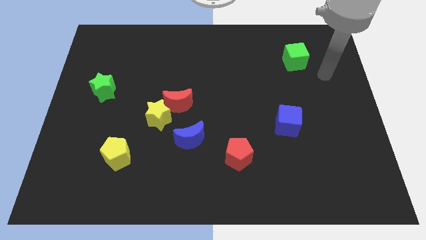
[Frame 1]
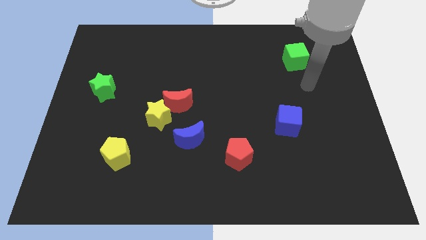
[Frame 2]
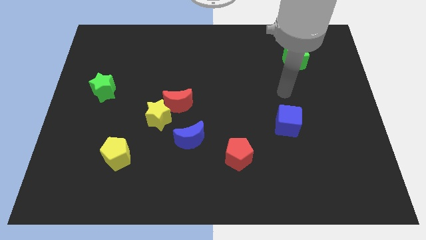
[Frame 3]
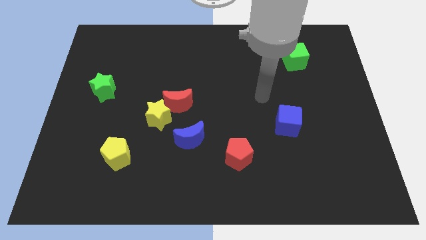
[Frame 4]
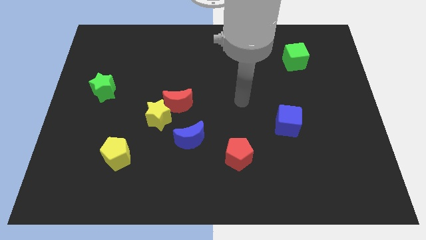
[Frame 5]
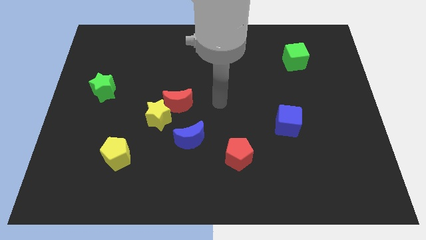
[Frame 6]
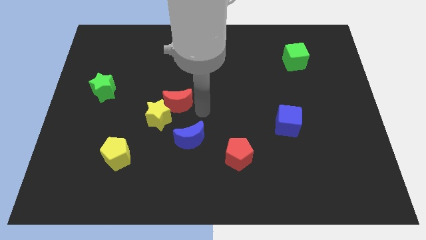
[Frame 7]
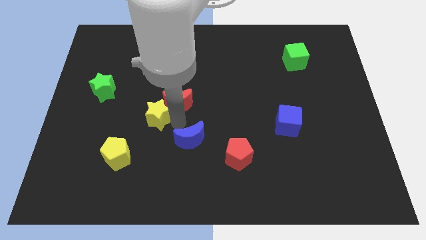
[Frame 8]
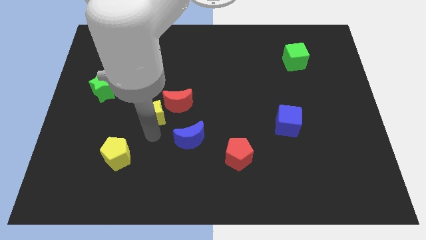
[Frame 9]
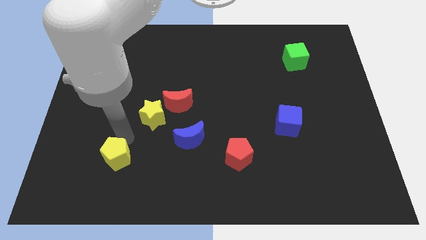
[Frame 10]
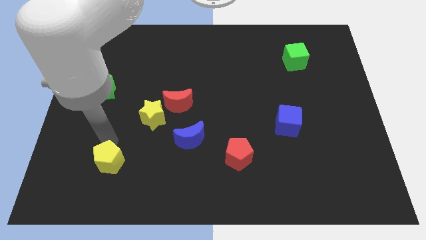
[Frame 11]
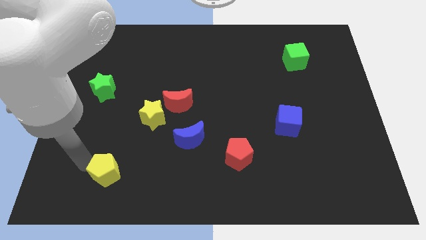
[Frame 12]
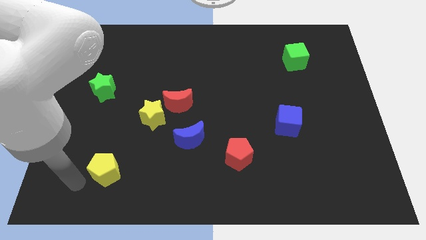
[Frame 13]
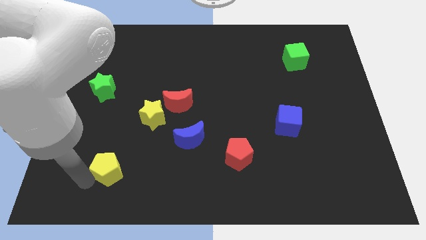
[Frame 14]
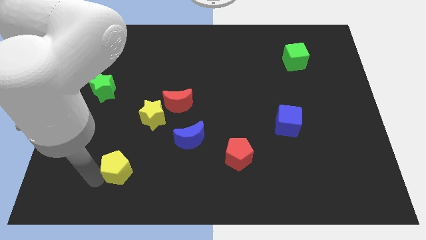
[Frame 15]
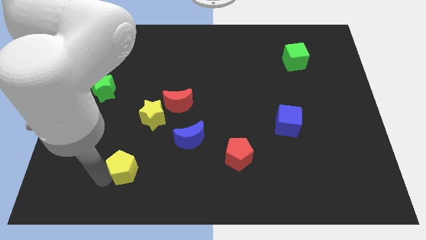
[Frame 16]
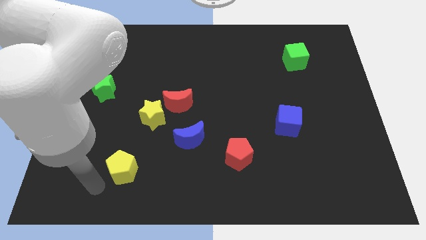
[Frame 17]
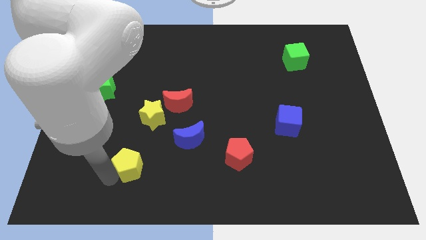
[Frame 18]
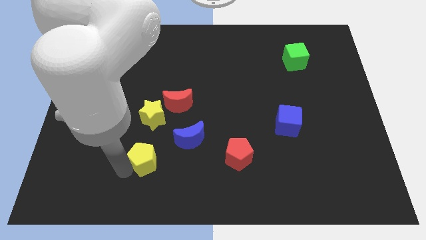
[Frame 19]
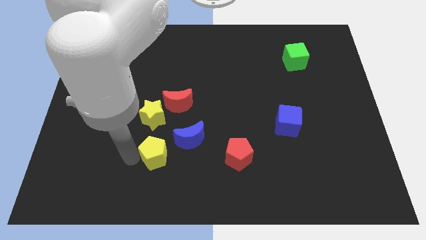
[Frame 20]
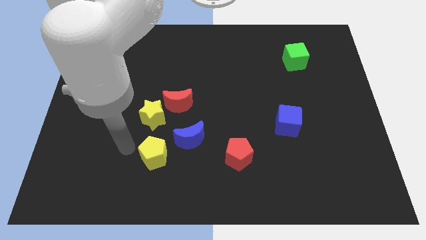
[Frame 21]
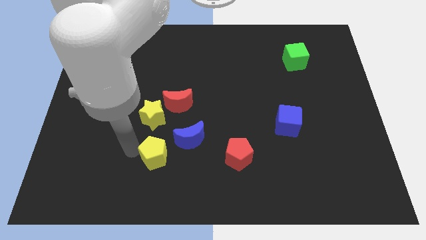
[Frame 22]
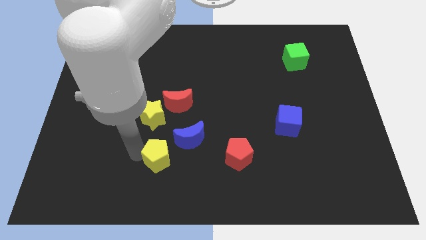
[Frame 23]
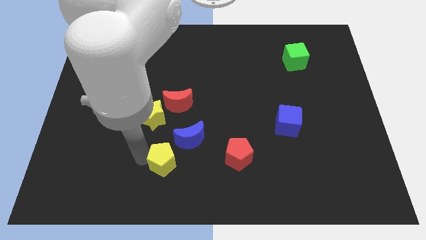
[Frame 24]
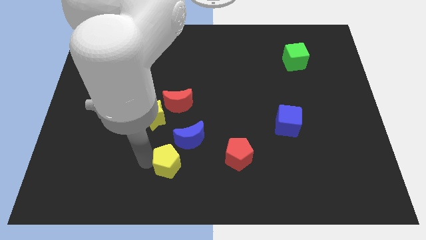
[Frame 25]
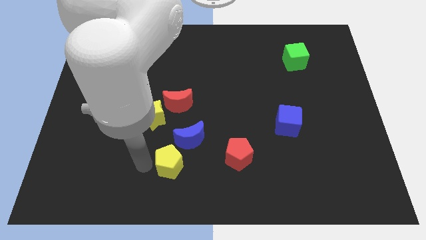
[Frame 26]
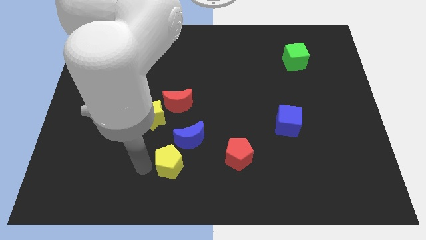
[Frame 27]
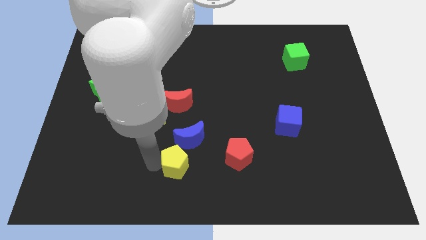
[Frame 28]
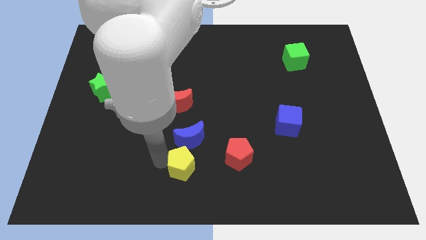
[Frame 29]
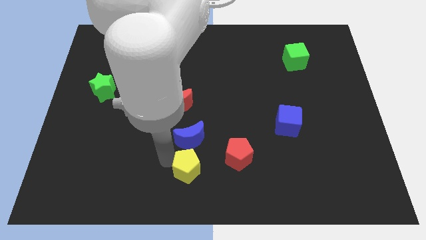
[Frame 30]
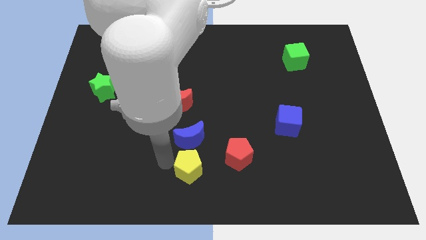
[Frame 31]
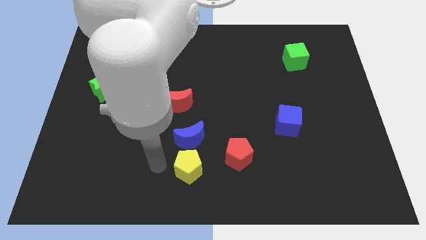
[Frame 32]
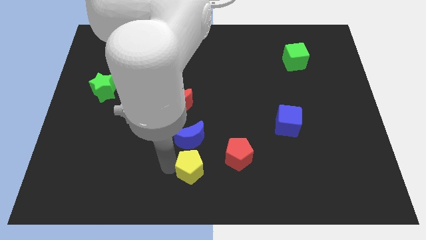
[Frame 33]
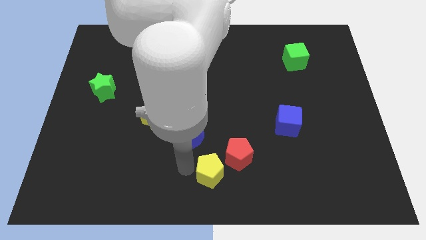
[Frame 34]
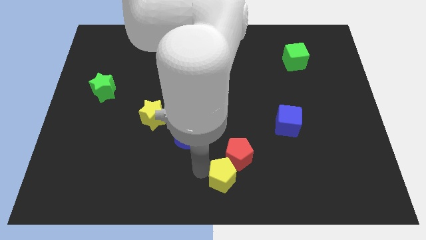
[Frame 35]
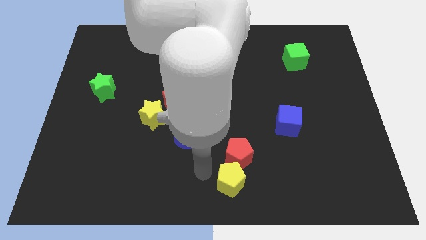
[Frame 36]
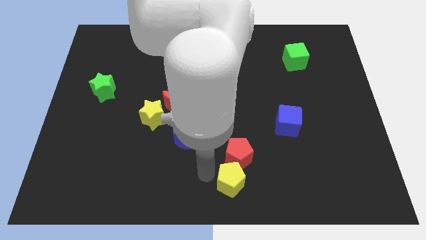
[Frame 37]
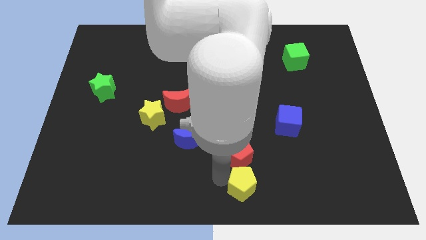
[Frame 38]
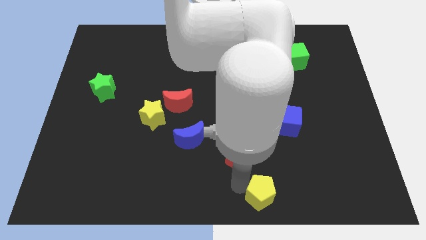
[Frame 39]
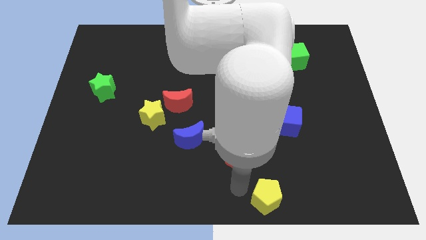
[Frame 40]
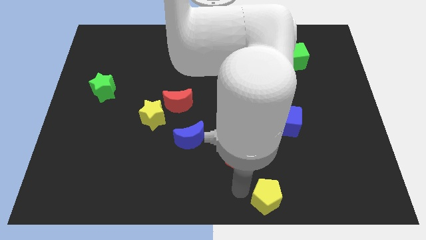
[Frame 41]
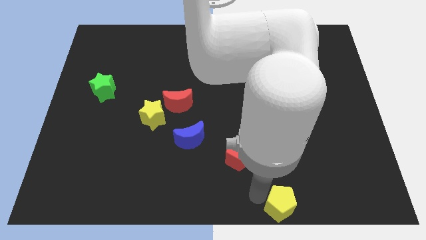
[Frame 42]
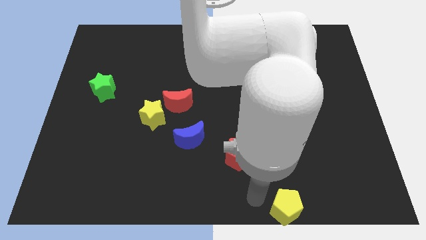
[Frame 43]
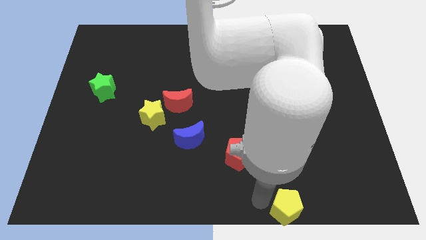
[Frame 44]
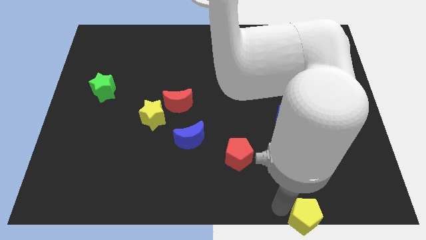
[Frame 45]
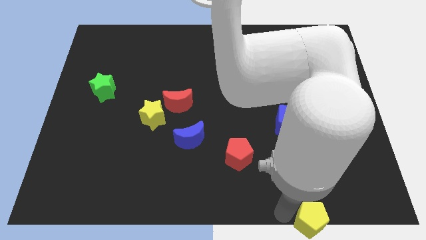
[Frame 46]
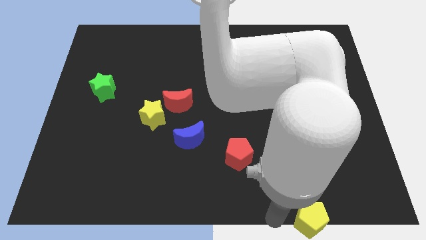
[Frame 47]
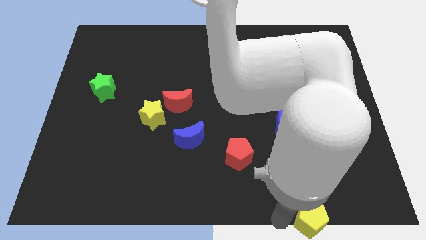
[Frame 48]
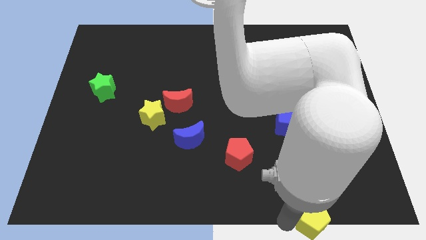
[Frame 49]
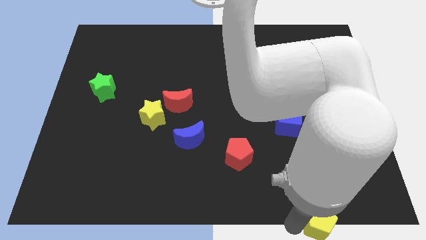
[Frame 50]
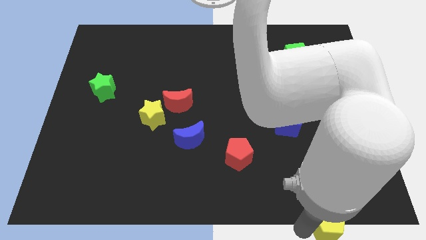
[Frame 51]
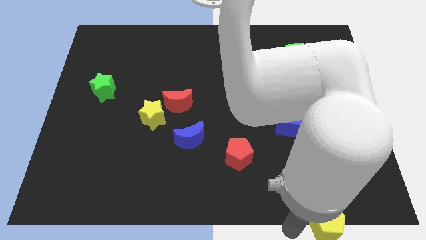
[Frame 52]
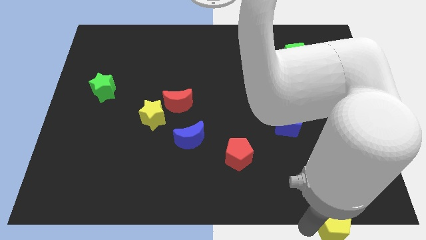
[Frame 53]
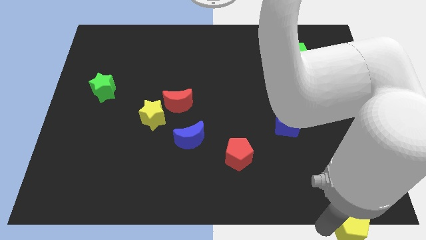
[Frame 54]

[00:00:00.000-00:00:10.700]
slide the yellow pentagon to the lower right corner

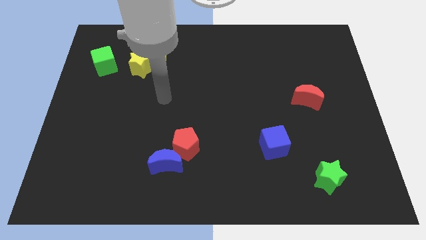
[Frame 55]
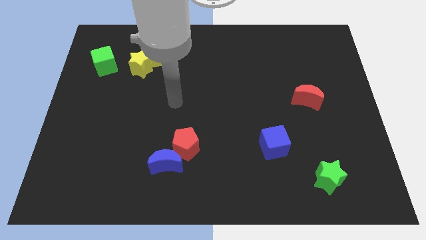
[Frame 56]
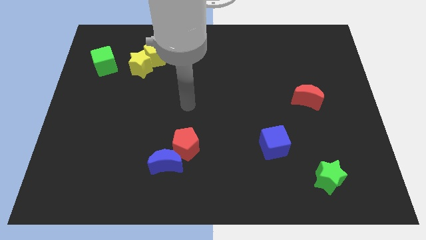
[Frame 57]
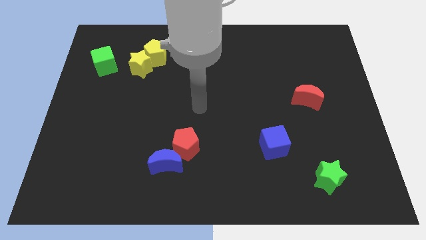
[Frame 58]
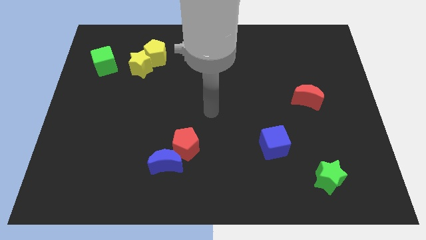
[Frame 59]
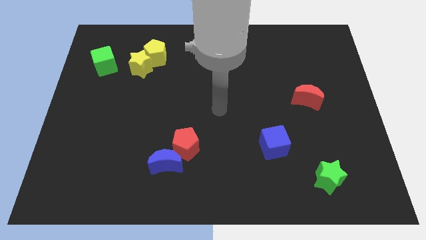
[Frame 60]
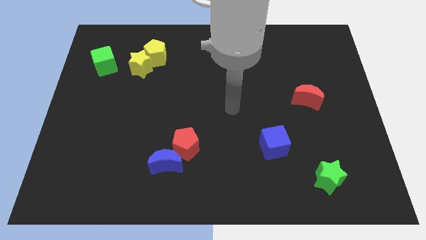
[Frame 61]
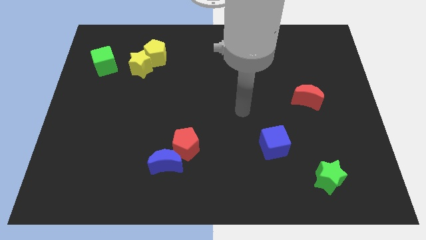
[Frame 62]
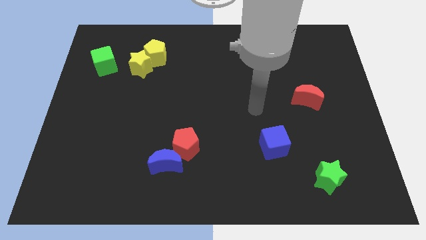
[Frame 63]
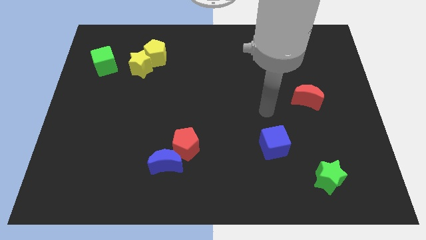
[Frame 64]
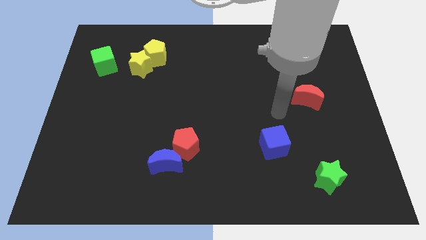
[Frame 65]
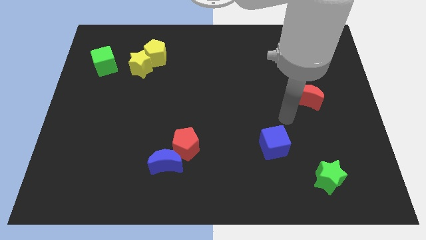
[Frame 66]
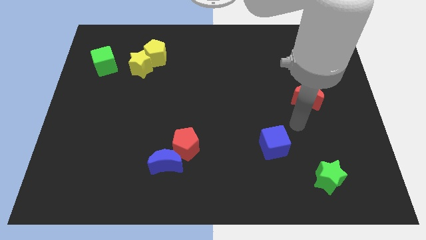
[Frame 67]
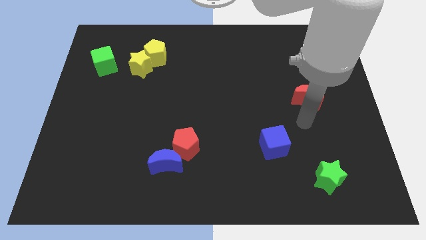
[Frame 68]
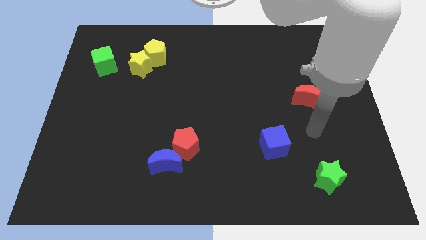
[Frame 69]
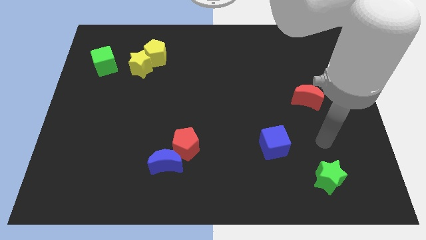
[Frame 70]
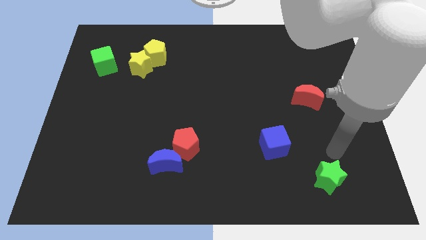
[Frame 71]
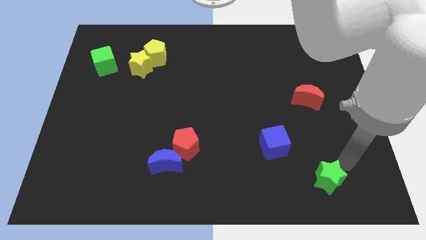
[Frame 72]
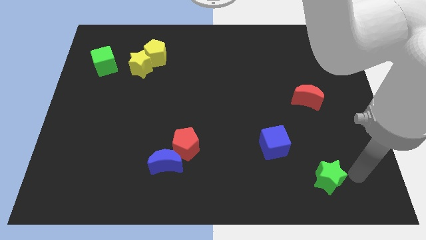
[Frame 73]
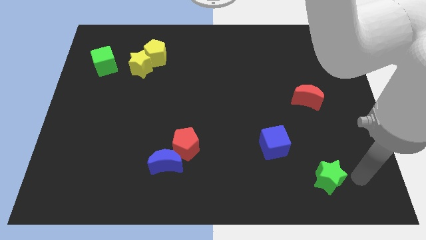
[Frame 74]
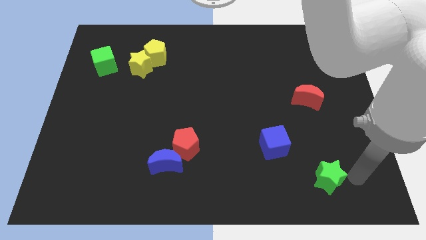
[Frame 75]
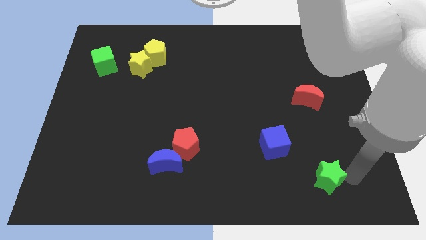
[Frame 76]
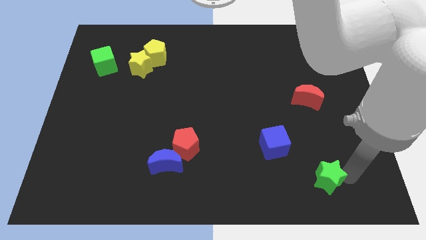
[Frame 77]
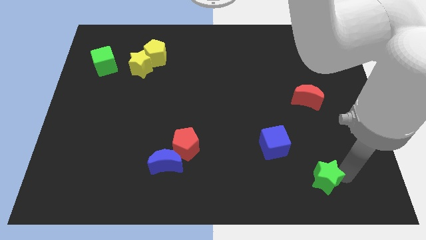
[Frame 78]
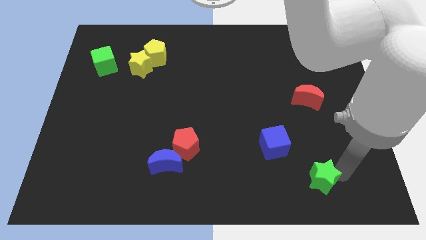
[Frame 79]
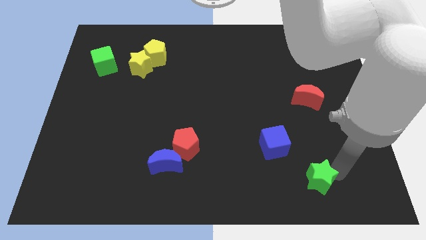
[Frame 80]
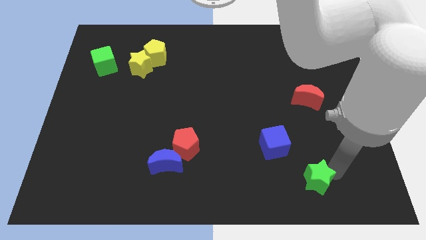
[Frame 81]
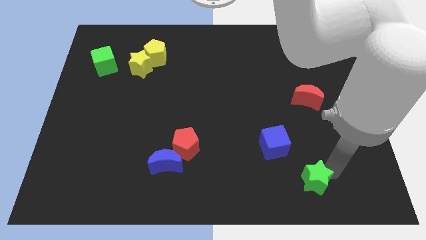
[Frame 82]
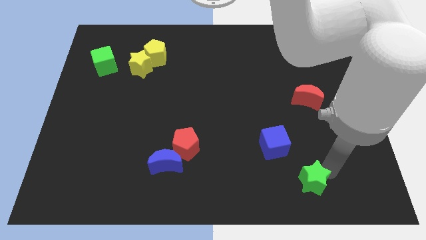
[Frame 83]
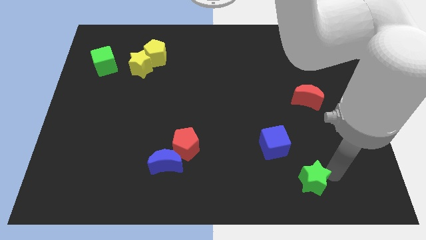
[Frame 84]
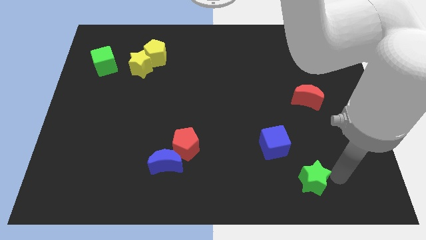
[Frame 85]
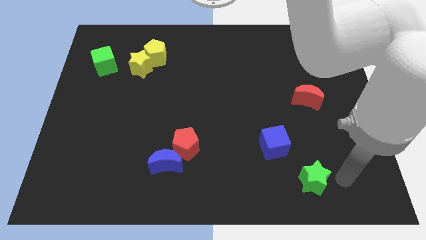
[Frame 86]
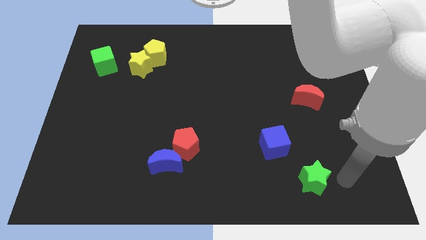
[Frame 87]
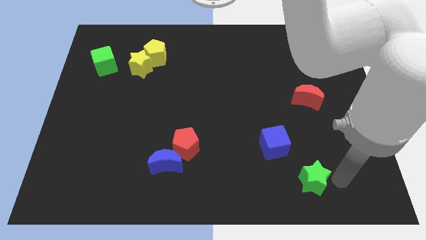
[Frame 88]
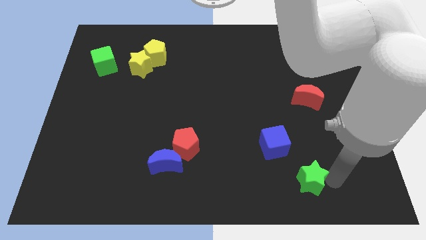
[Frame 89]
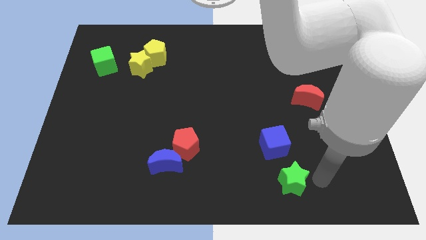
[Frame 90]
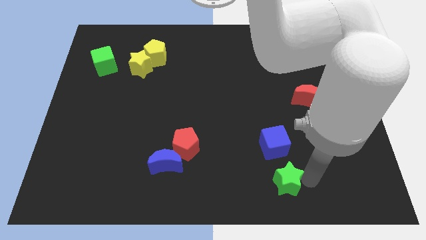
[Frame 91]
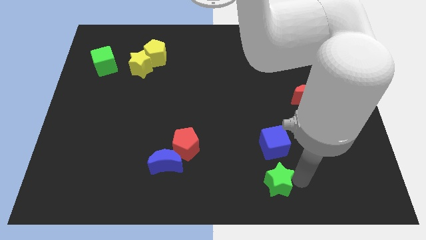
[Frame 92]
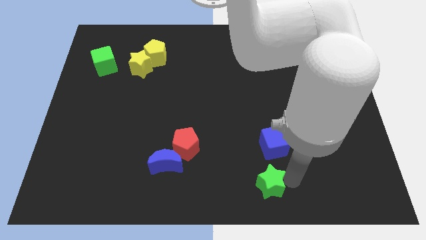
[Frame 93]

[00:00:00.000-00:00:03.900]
move the green star to the bottom side
